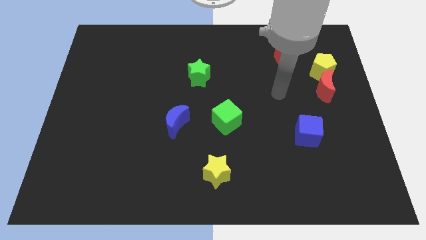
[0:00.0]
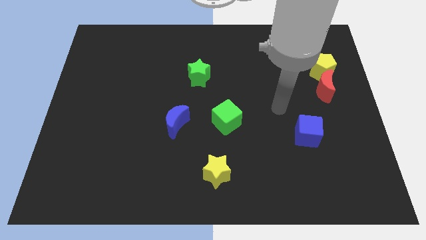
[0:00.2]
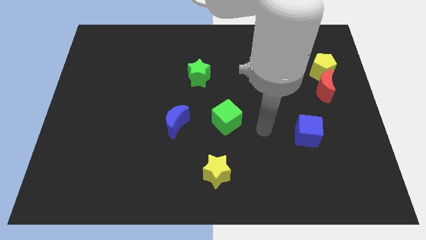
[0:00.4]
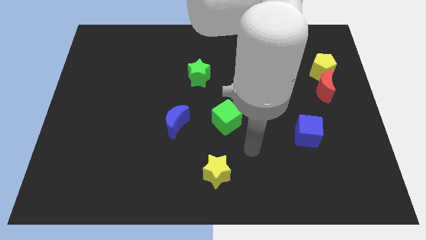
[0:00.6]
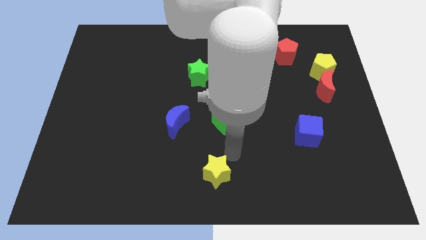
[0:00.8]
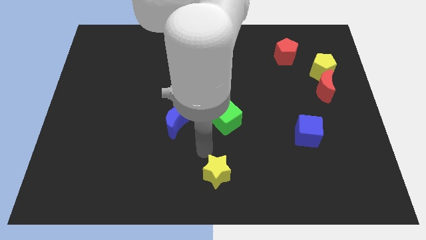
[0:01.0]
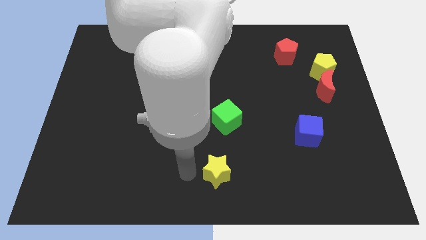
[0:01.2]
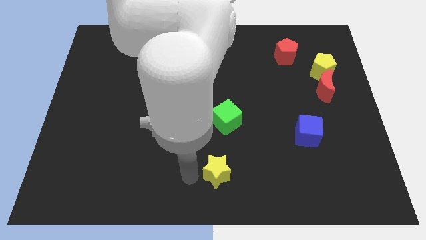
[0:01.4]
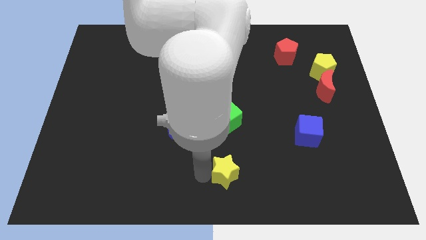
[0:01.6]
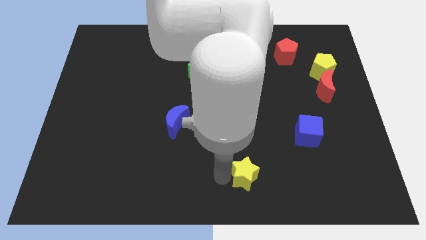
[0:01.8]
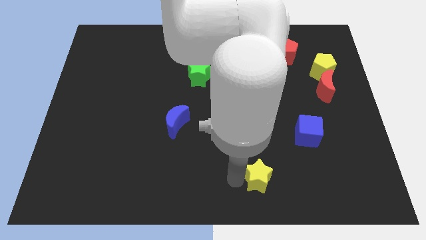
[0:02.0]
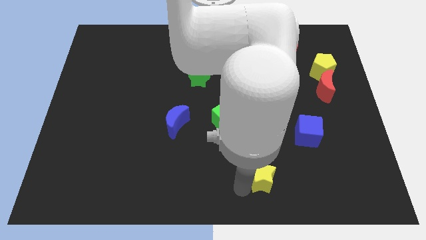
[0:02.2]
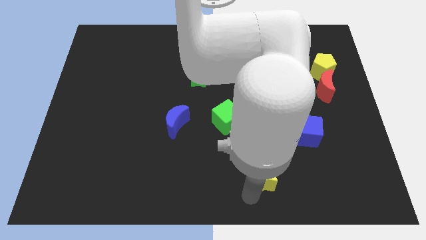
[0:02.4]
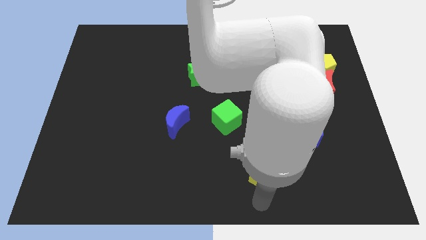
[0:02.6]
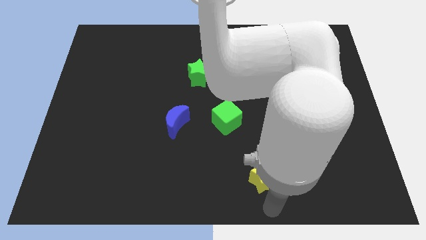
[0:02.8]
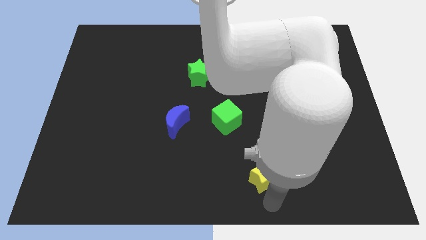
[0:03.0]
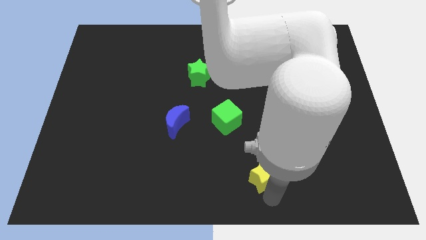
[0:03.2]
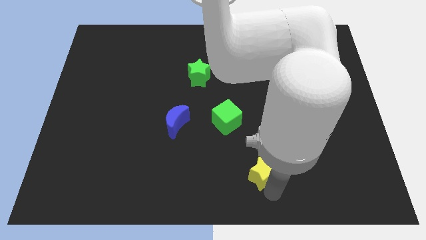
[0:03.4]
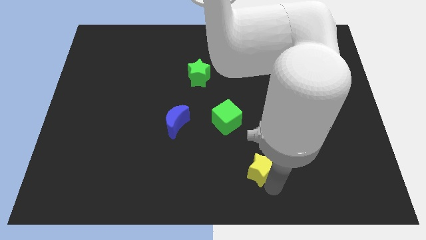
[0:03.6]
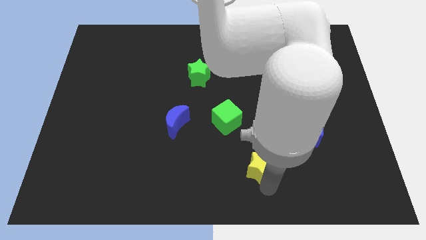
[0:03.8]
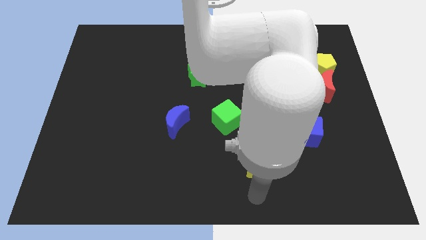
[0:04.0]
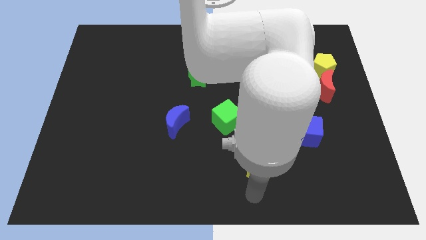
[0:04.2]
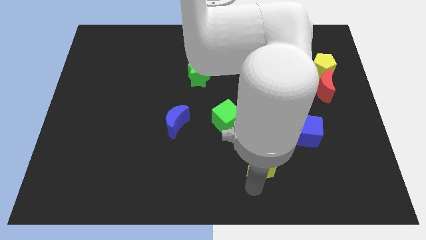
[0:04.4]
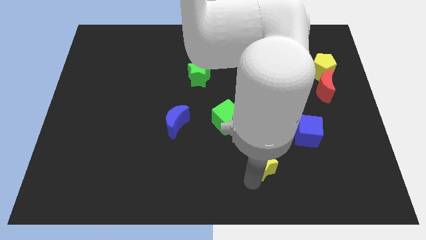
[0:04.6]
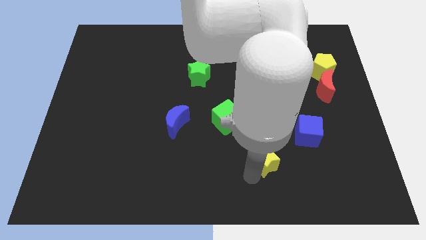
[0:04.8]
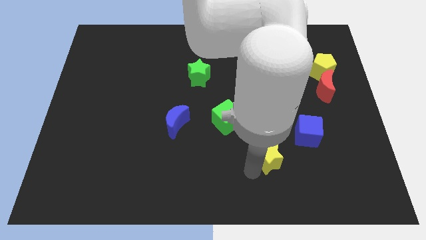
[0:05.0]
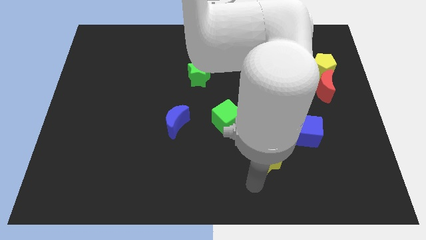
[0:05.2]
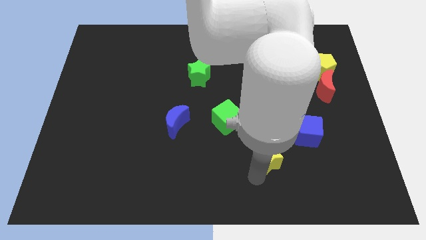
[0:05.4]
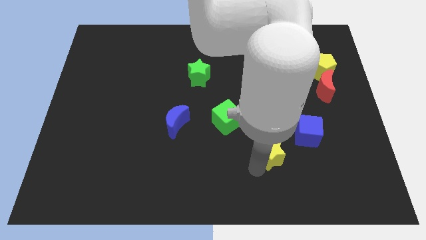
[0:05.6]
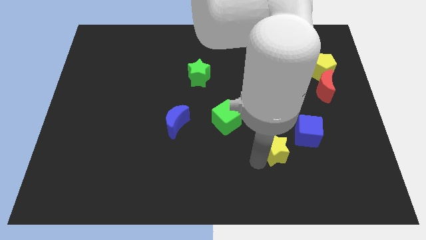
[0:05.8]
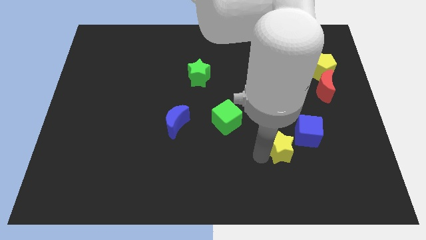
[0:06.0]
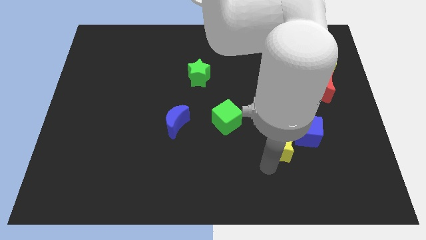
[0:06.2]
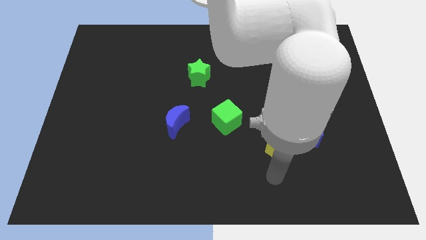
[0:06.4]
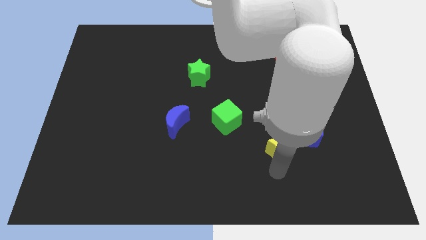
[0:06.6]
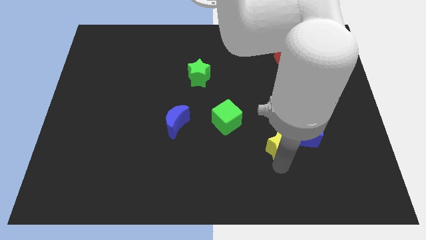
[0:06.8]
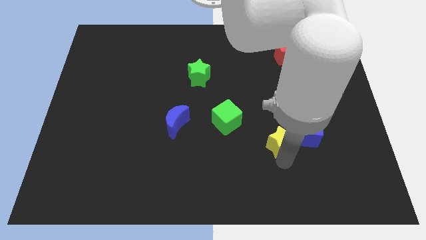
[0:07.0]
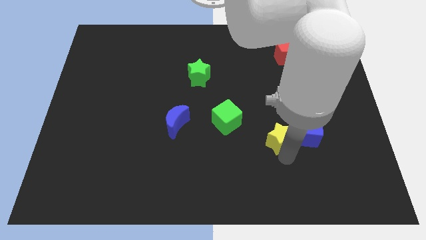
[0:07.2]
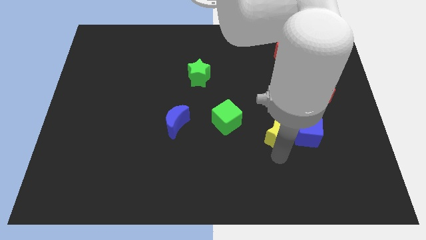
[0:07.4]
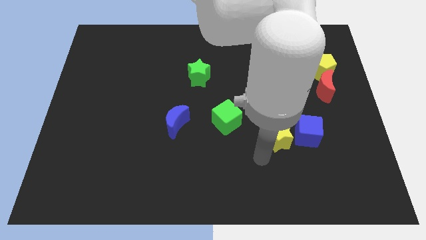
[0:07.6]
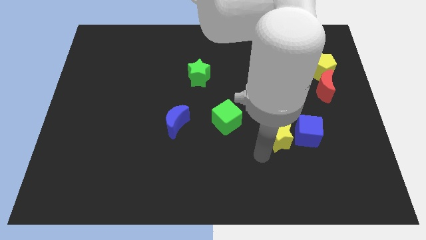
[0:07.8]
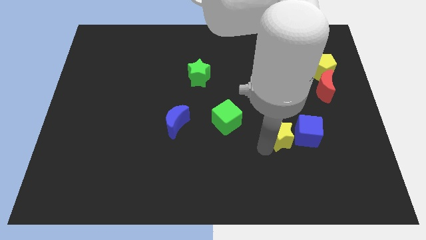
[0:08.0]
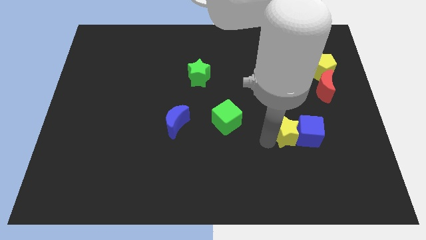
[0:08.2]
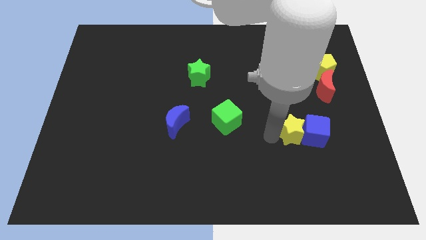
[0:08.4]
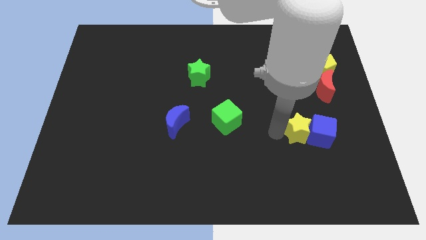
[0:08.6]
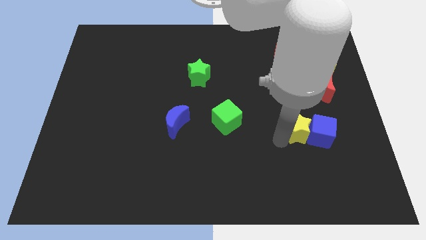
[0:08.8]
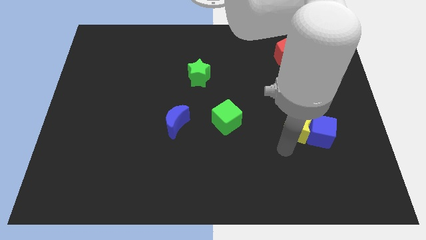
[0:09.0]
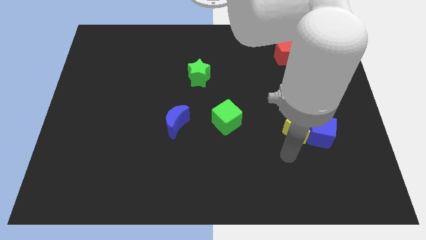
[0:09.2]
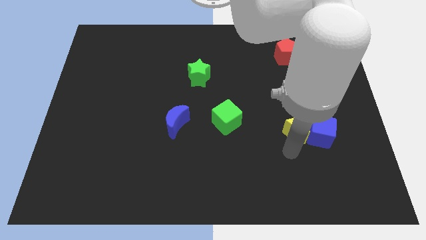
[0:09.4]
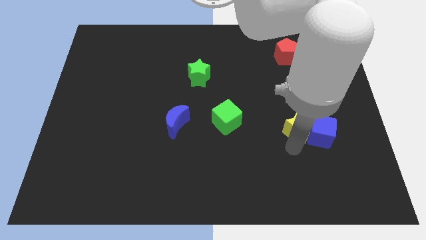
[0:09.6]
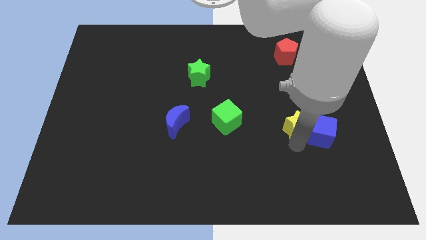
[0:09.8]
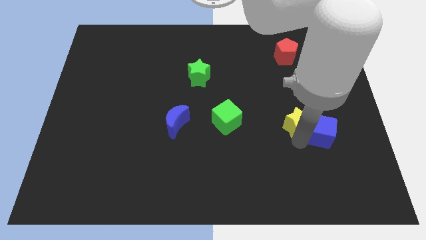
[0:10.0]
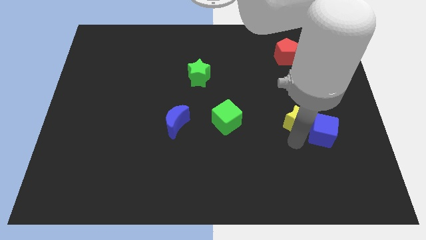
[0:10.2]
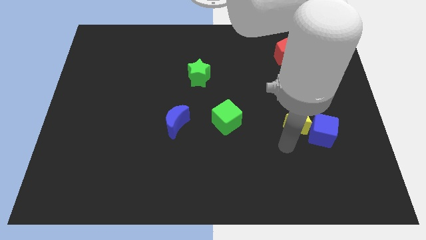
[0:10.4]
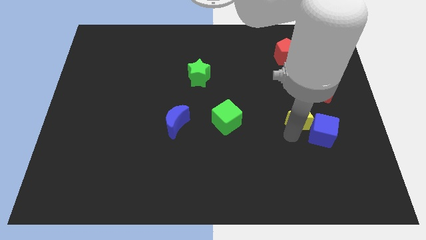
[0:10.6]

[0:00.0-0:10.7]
slide the yellow star diagonally down and to the left of the red moon

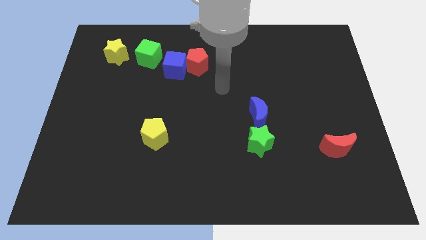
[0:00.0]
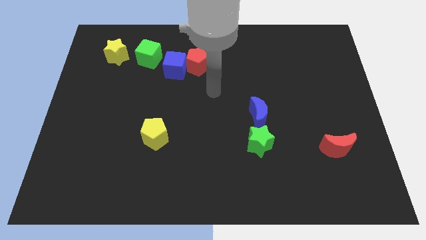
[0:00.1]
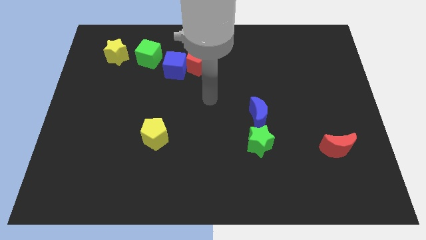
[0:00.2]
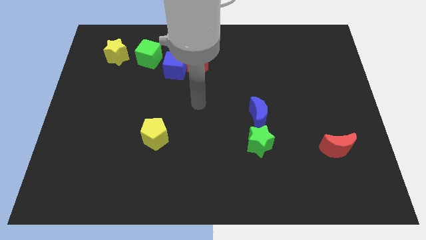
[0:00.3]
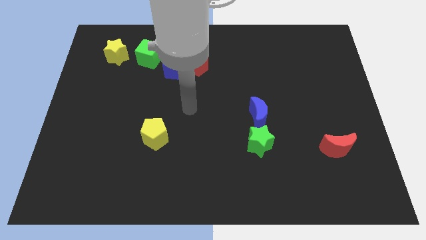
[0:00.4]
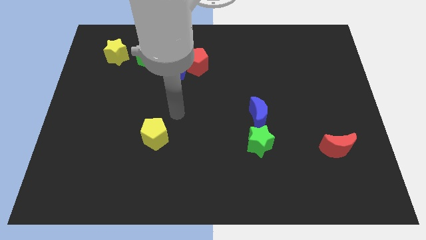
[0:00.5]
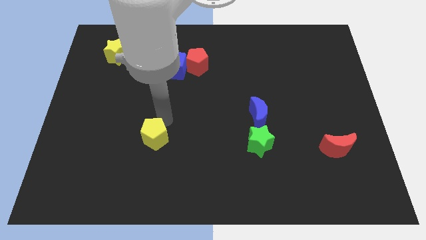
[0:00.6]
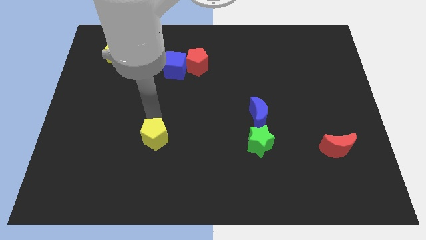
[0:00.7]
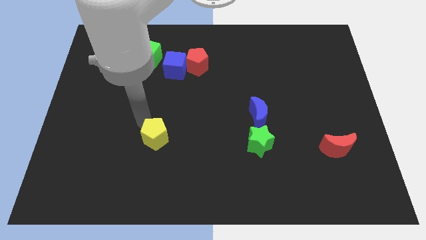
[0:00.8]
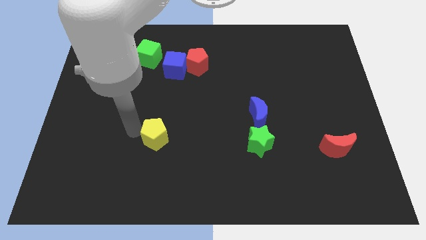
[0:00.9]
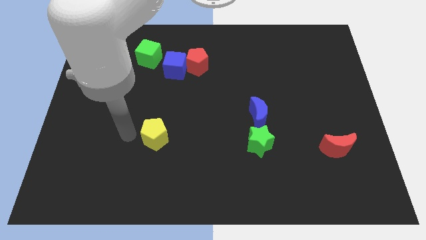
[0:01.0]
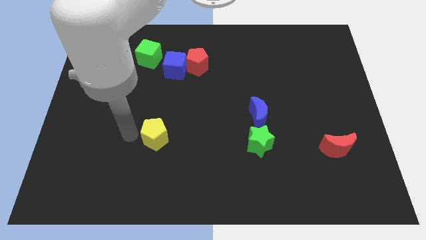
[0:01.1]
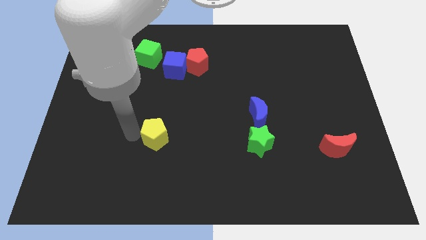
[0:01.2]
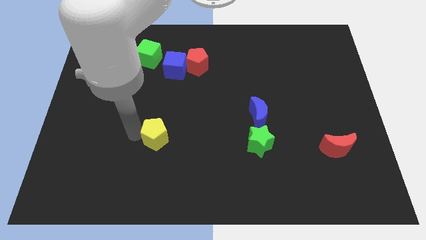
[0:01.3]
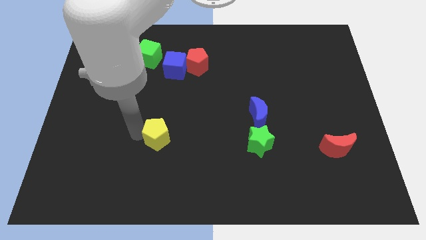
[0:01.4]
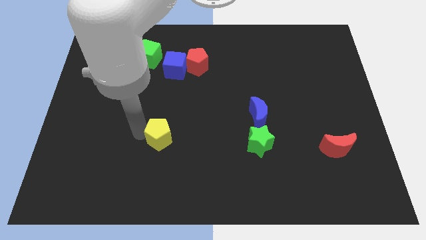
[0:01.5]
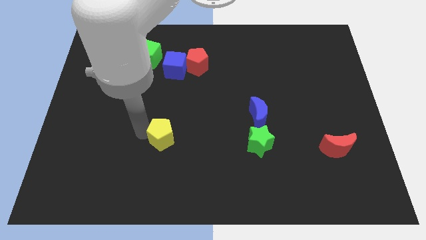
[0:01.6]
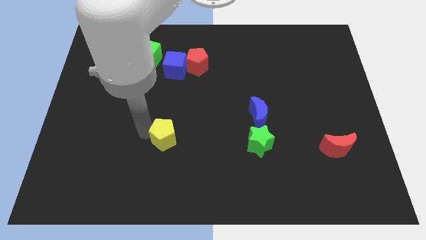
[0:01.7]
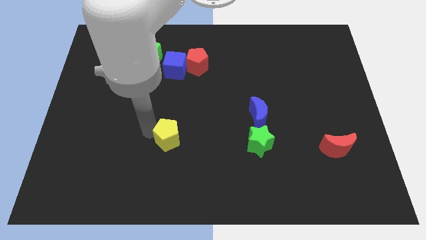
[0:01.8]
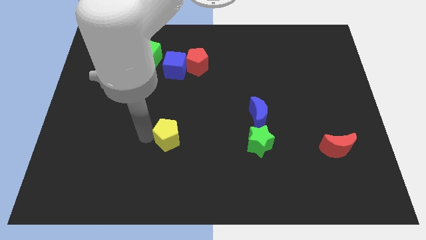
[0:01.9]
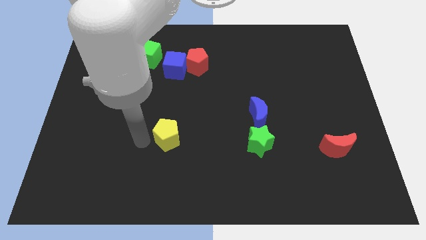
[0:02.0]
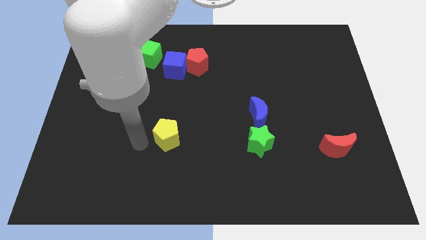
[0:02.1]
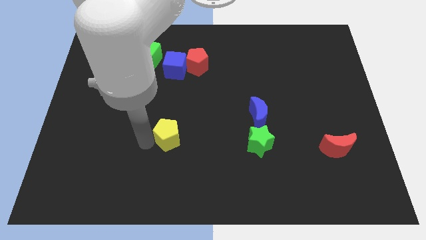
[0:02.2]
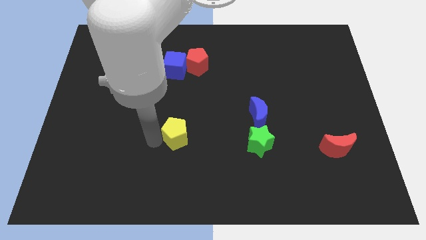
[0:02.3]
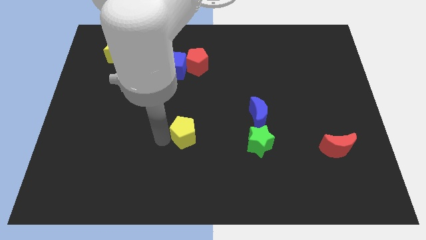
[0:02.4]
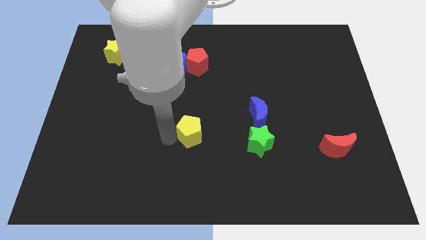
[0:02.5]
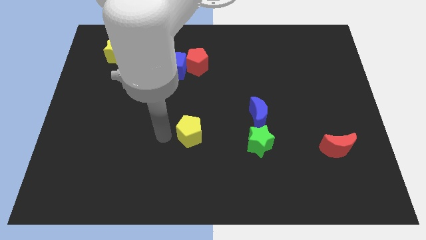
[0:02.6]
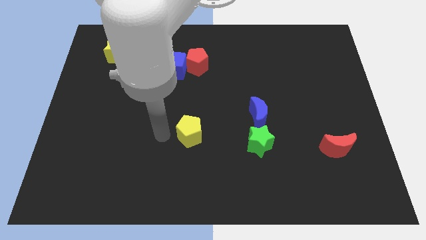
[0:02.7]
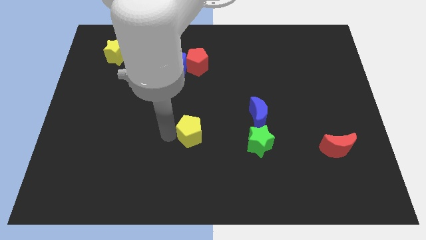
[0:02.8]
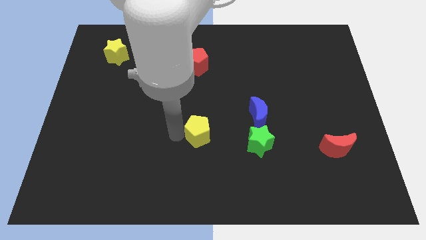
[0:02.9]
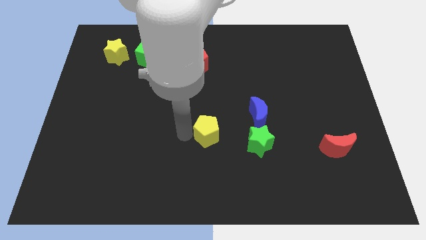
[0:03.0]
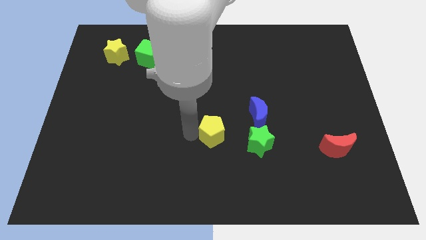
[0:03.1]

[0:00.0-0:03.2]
slide the yellow pentagon to the bottom left of the blue moon
